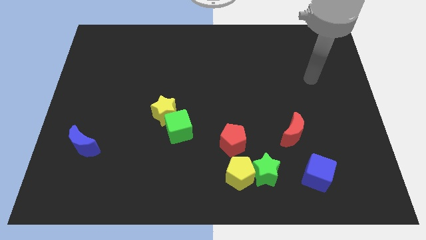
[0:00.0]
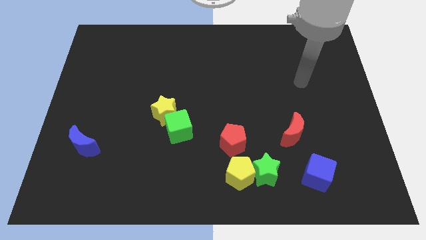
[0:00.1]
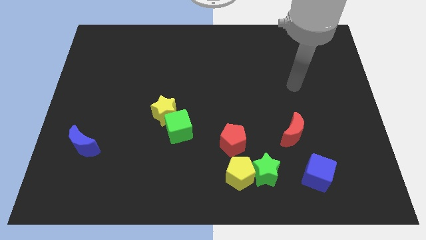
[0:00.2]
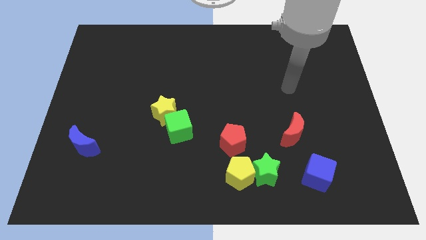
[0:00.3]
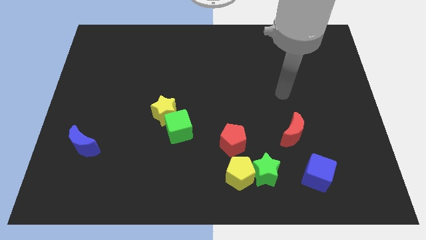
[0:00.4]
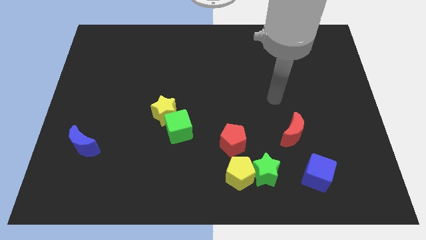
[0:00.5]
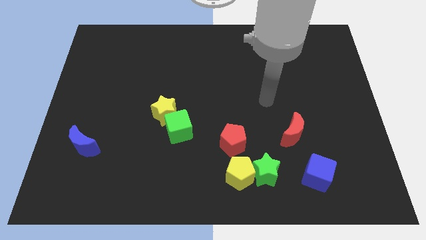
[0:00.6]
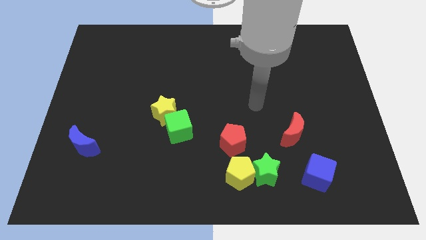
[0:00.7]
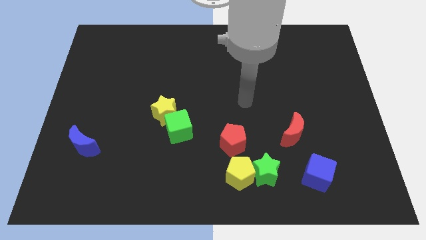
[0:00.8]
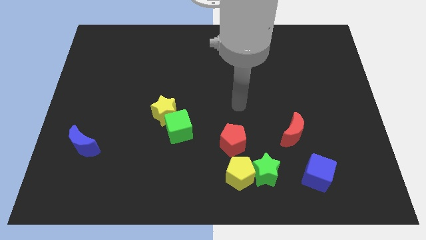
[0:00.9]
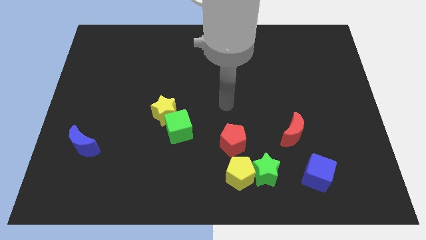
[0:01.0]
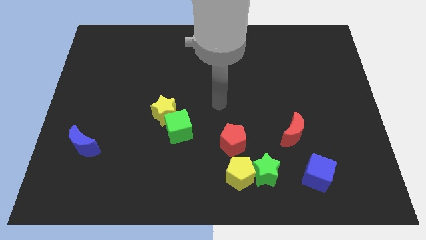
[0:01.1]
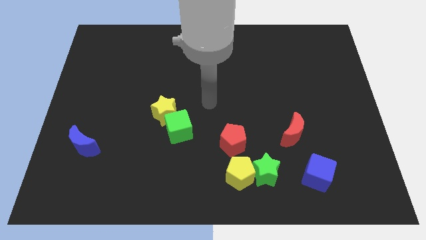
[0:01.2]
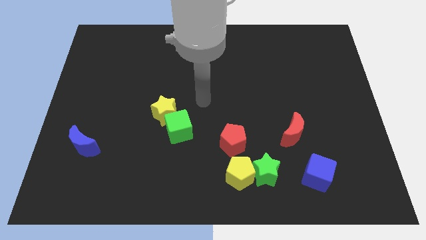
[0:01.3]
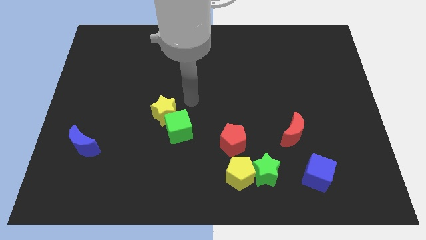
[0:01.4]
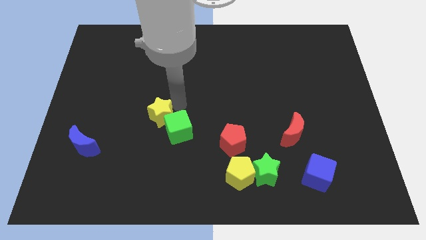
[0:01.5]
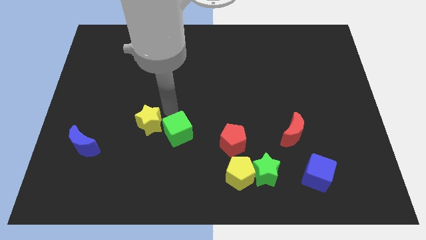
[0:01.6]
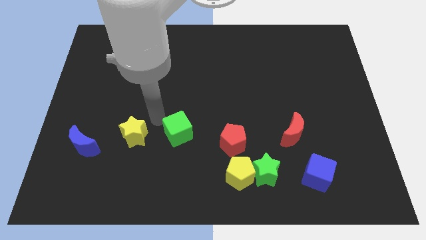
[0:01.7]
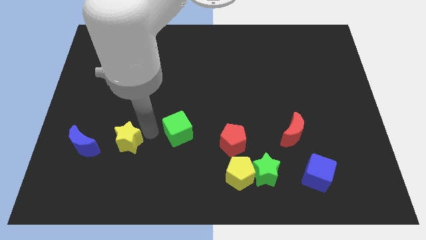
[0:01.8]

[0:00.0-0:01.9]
pull the green cube apart from the yellow star

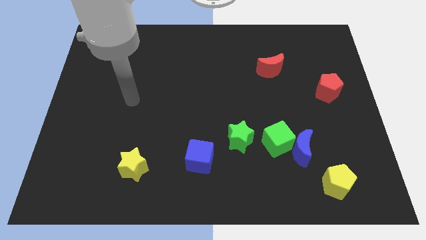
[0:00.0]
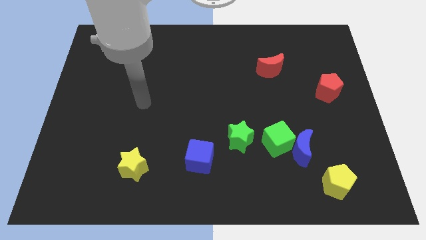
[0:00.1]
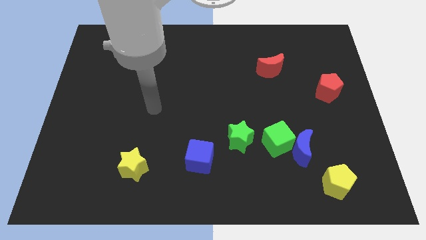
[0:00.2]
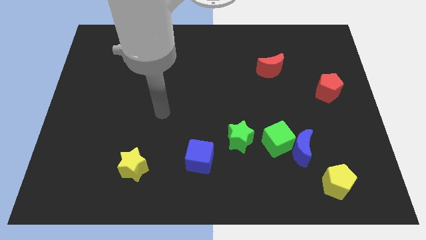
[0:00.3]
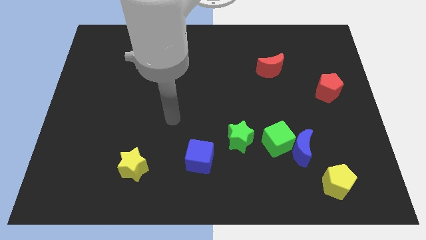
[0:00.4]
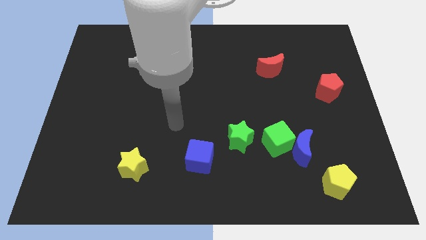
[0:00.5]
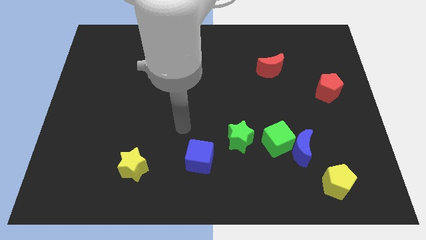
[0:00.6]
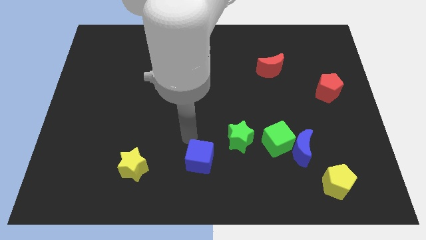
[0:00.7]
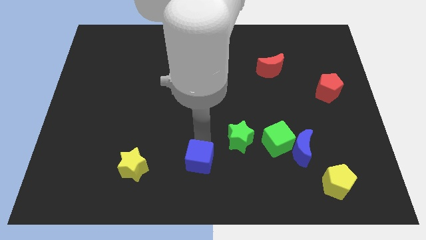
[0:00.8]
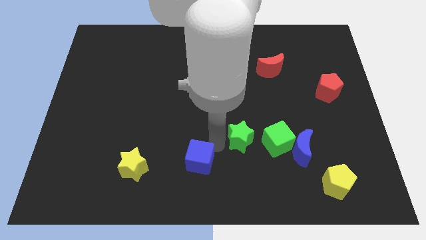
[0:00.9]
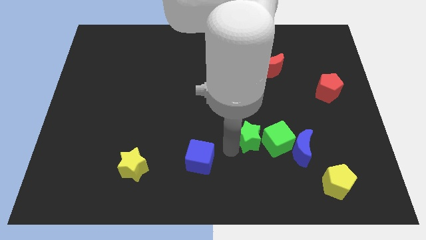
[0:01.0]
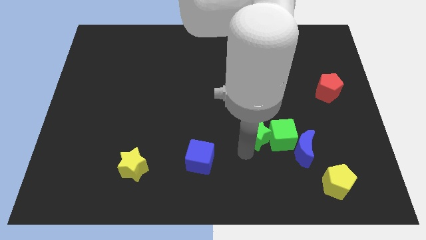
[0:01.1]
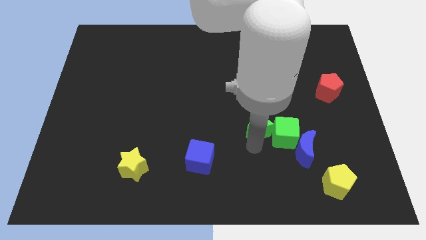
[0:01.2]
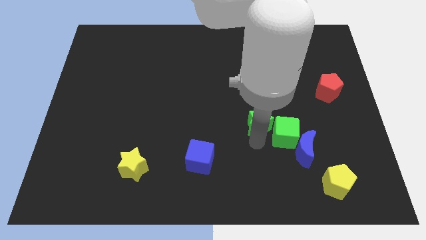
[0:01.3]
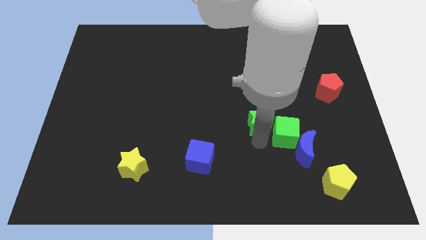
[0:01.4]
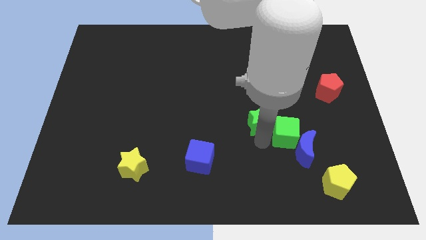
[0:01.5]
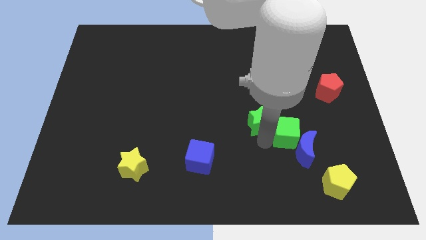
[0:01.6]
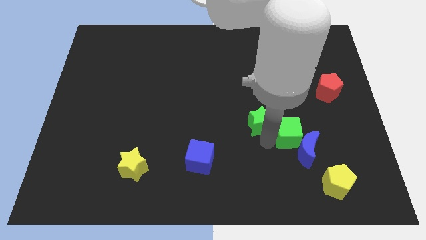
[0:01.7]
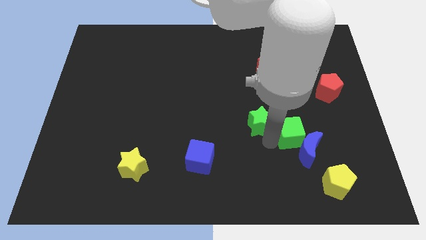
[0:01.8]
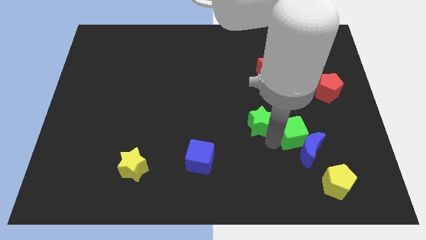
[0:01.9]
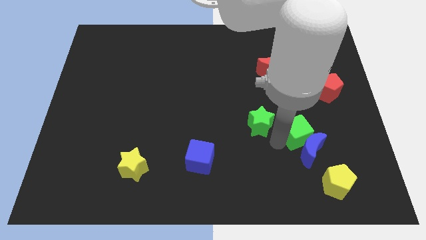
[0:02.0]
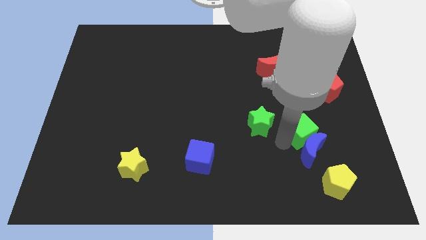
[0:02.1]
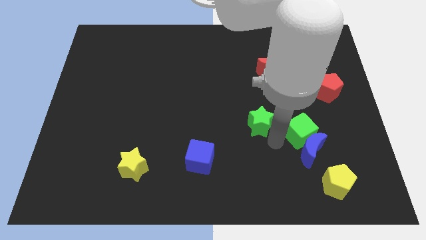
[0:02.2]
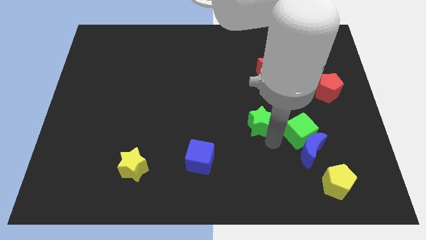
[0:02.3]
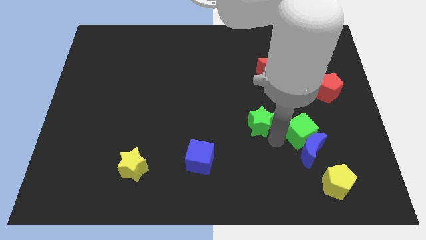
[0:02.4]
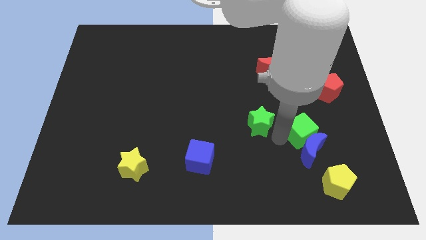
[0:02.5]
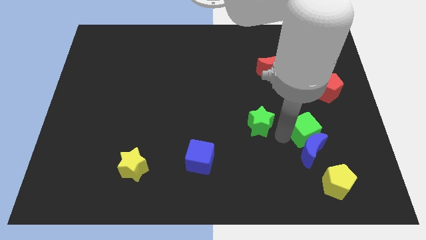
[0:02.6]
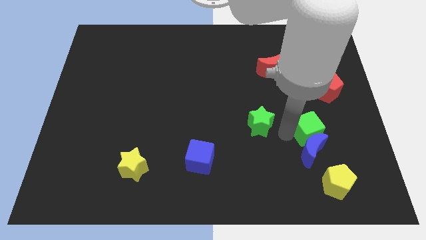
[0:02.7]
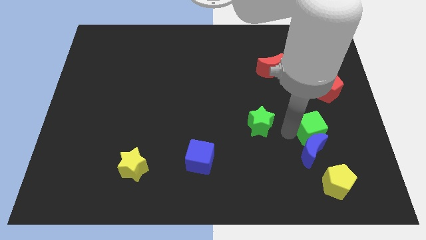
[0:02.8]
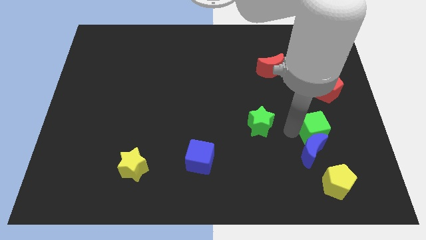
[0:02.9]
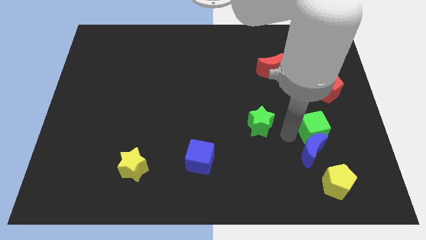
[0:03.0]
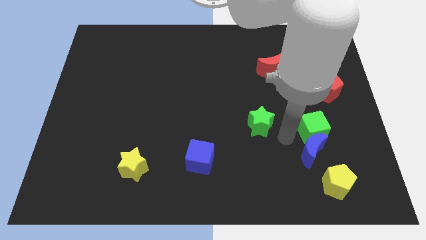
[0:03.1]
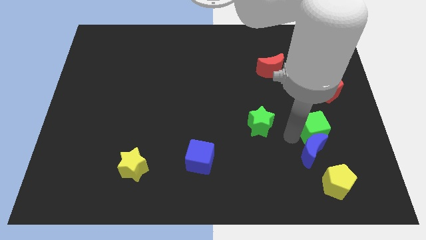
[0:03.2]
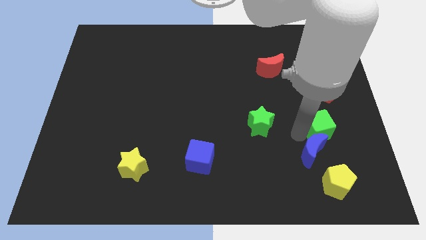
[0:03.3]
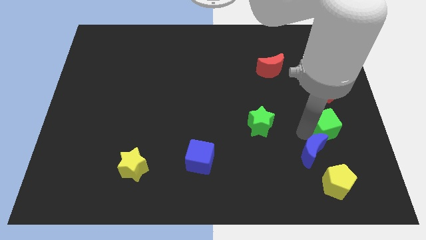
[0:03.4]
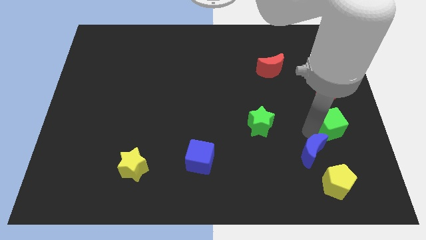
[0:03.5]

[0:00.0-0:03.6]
separate the green cube from the blue moon and green star

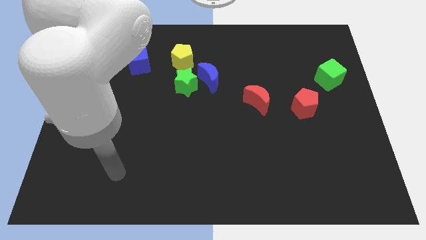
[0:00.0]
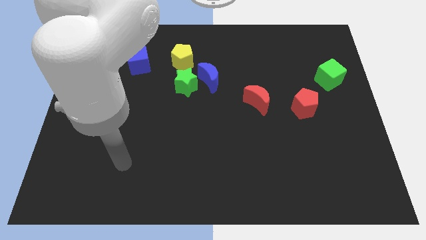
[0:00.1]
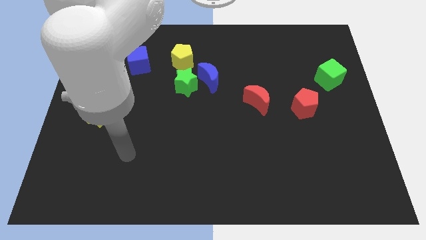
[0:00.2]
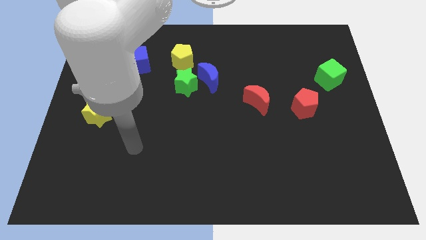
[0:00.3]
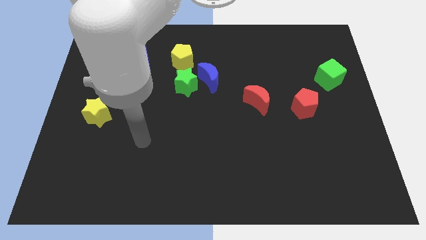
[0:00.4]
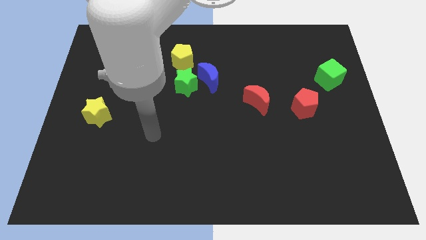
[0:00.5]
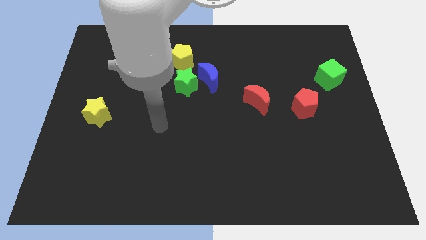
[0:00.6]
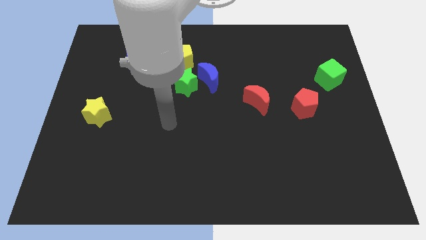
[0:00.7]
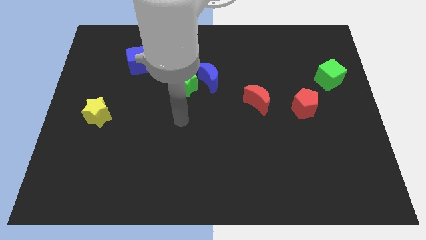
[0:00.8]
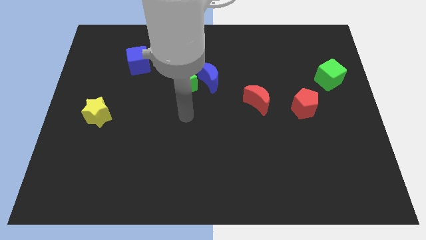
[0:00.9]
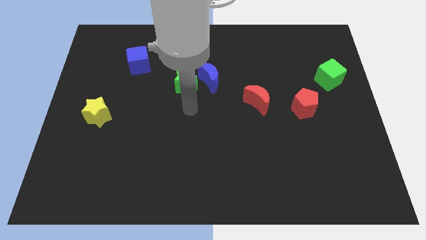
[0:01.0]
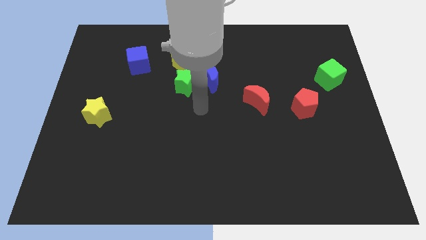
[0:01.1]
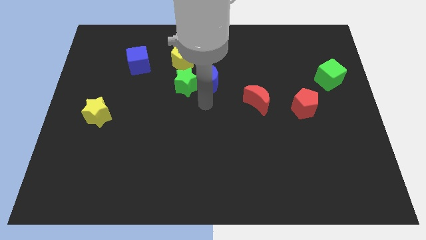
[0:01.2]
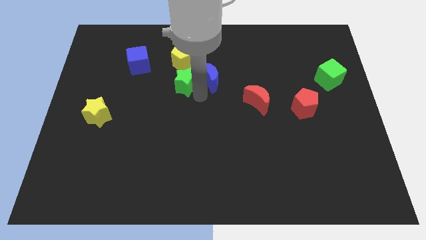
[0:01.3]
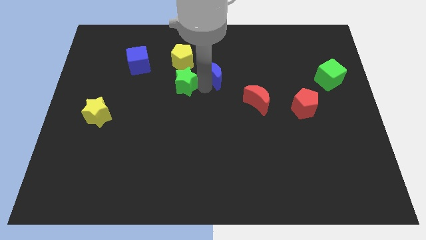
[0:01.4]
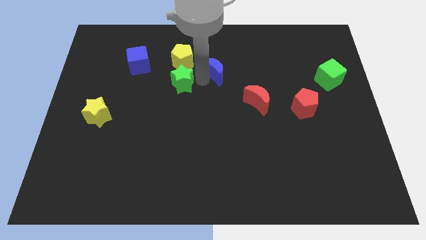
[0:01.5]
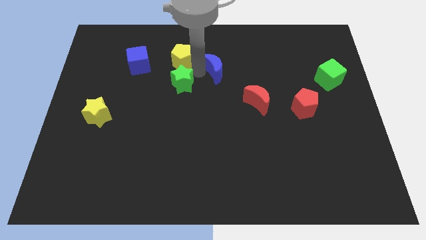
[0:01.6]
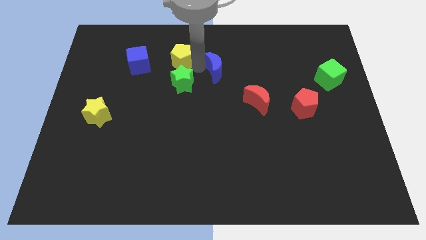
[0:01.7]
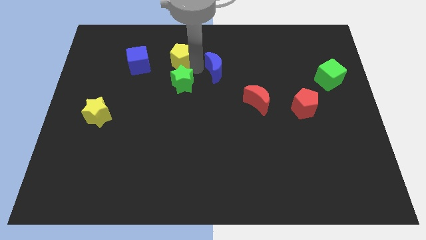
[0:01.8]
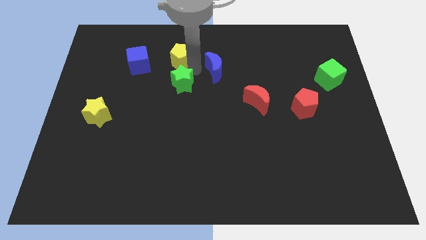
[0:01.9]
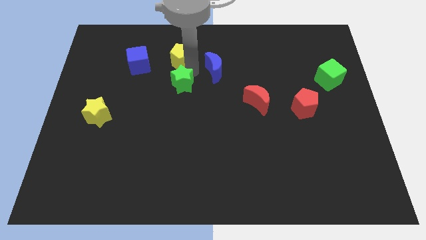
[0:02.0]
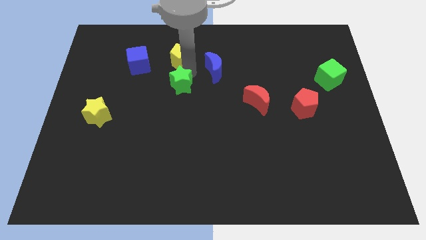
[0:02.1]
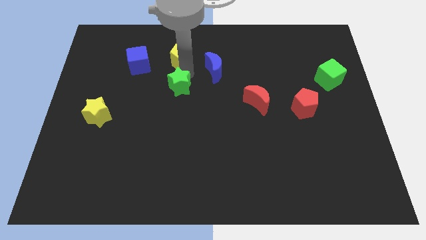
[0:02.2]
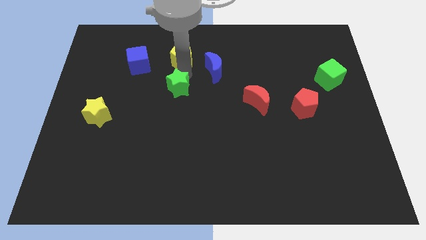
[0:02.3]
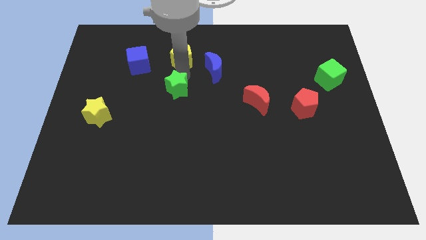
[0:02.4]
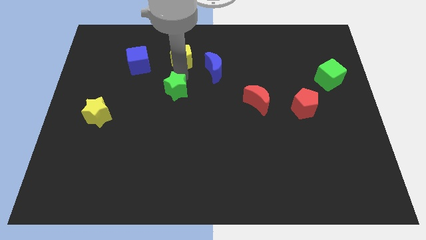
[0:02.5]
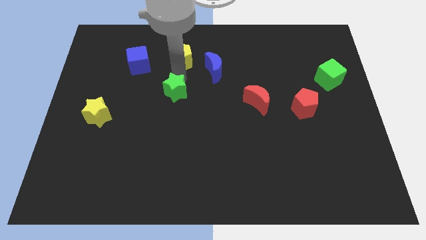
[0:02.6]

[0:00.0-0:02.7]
separate the green star from the blue moon and yellow pentagon

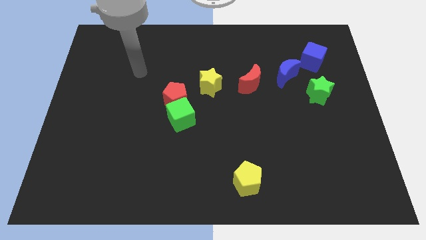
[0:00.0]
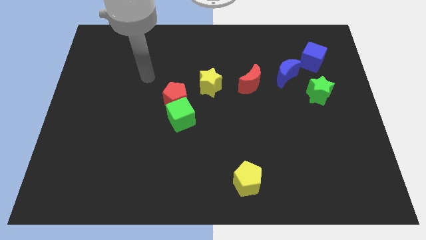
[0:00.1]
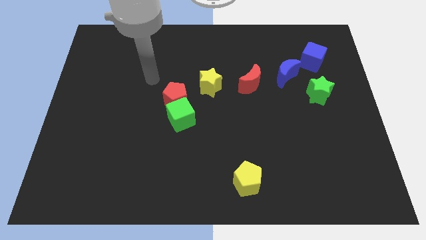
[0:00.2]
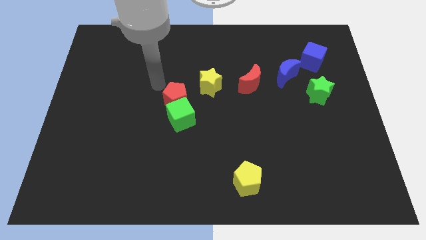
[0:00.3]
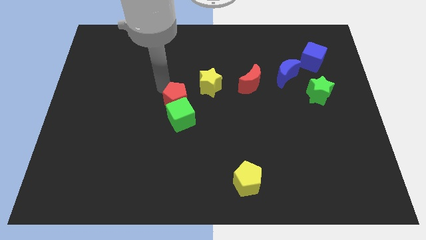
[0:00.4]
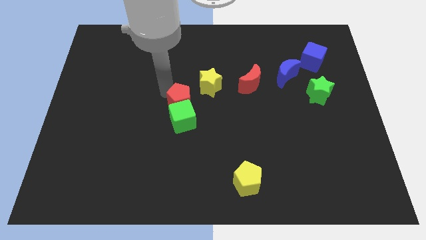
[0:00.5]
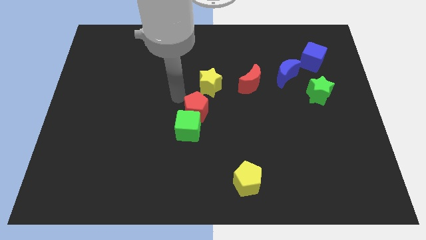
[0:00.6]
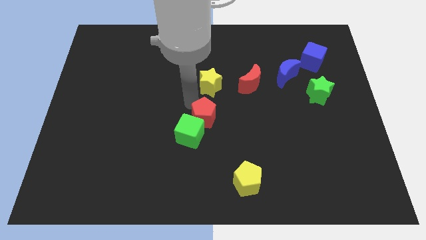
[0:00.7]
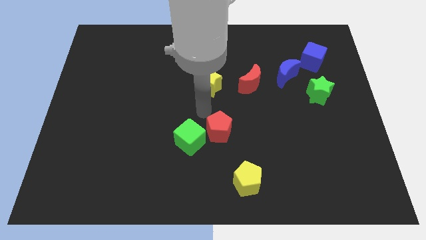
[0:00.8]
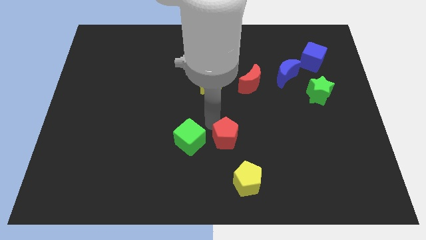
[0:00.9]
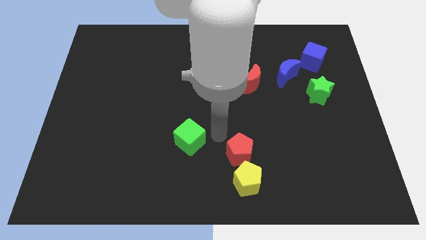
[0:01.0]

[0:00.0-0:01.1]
move the green cube away from the red pentagon
